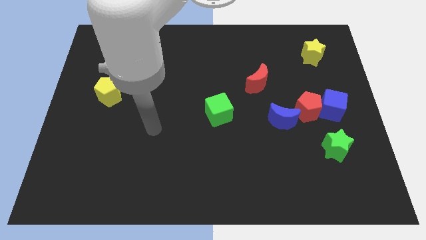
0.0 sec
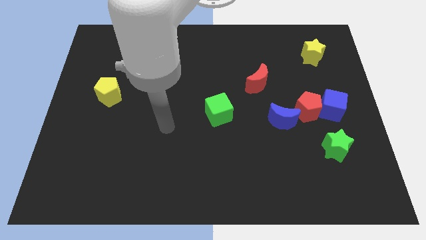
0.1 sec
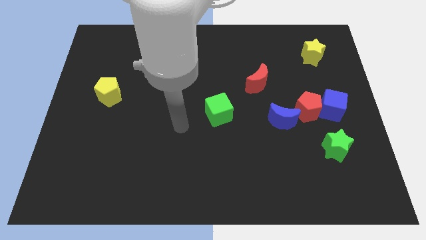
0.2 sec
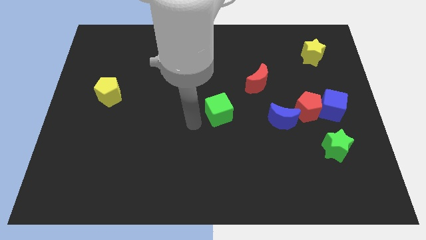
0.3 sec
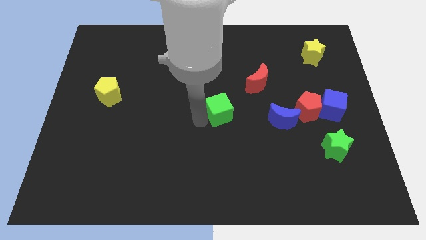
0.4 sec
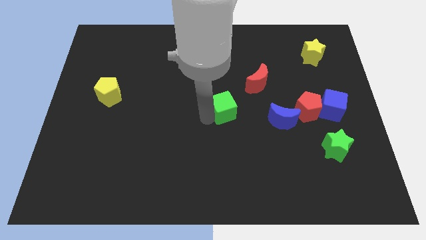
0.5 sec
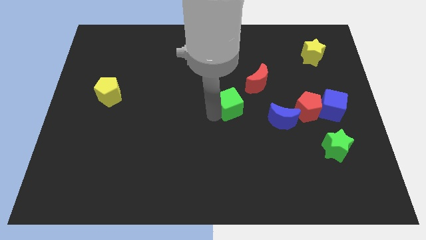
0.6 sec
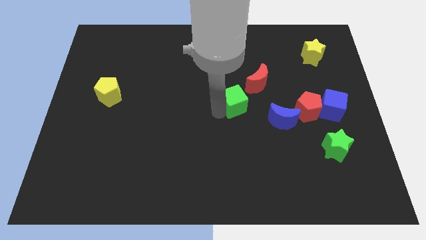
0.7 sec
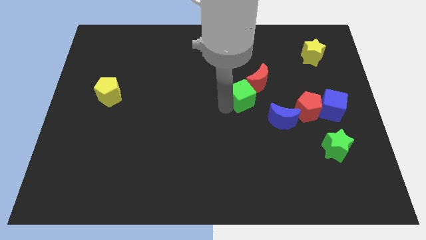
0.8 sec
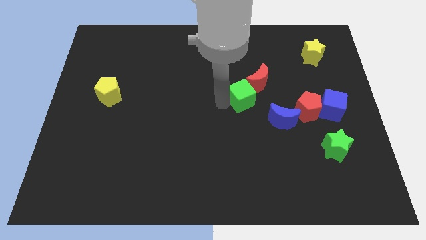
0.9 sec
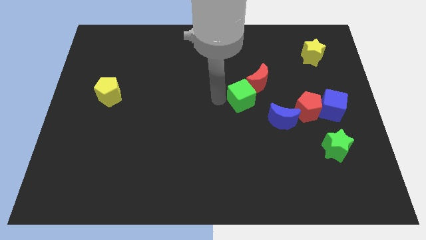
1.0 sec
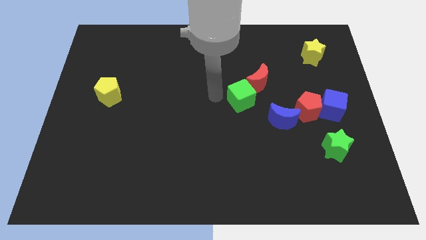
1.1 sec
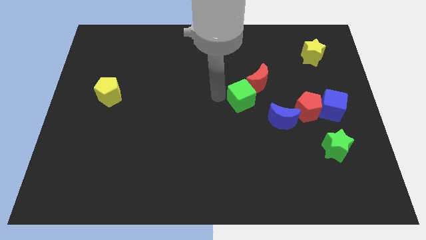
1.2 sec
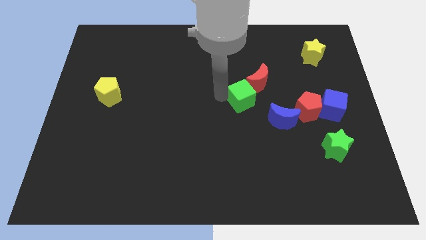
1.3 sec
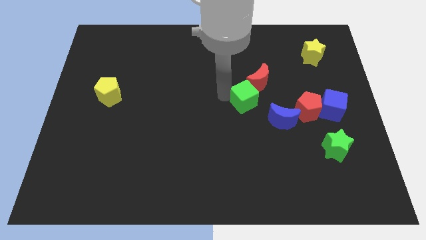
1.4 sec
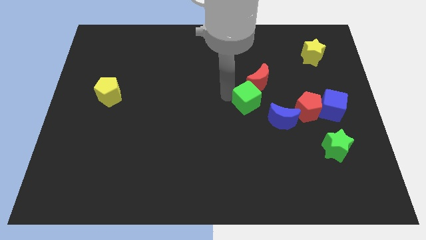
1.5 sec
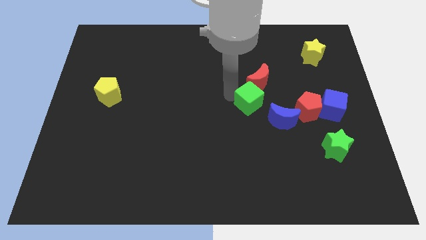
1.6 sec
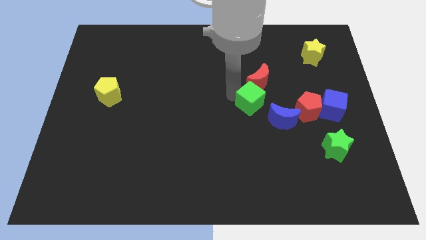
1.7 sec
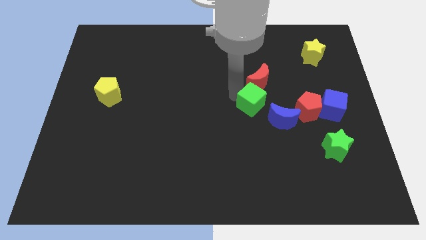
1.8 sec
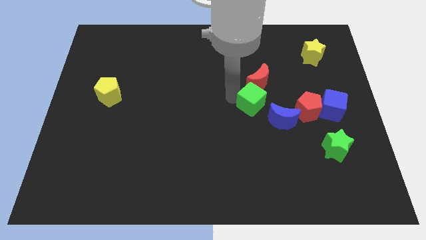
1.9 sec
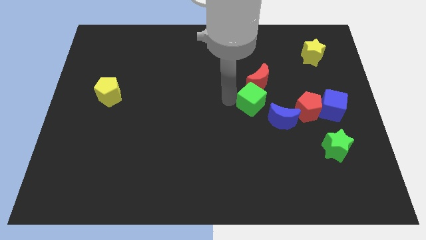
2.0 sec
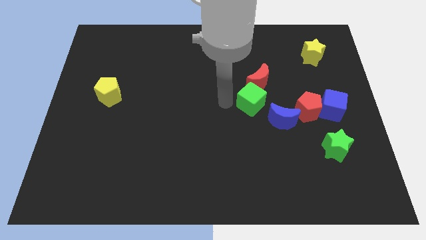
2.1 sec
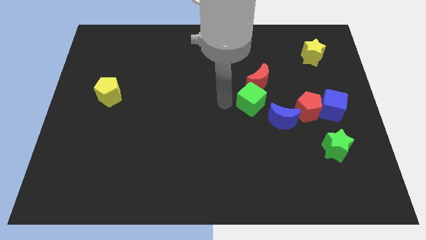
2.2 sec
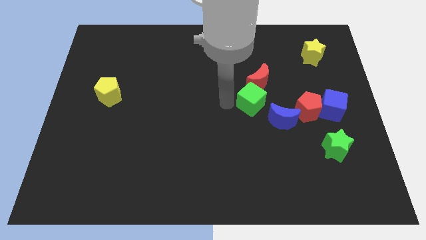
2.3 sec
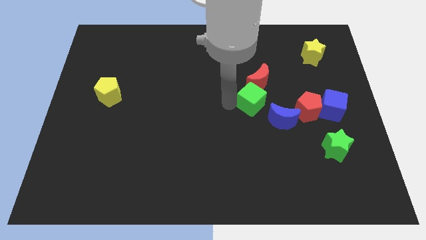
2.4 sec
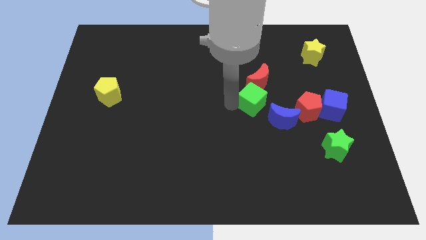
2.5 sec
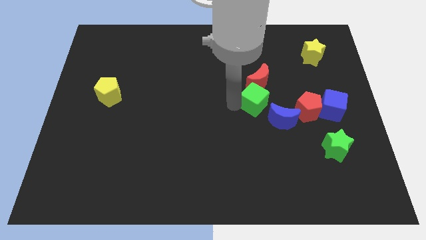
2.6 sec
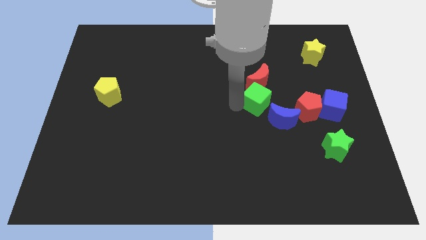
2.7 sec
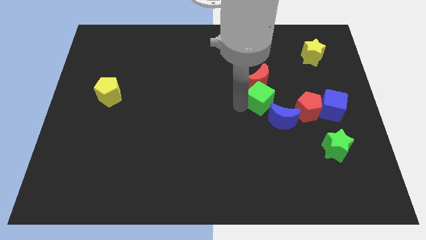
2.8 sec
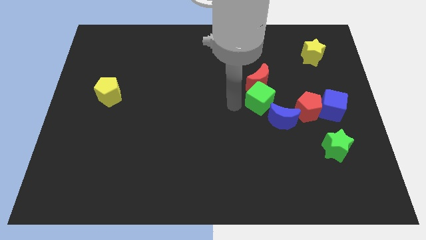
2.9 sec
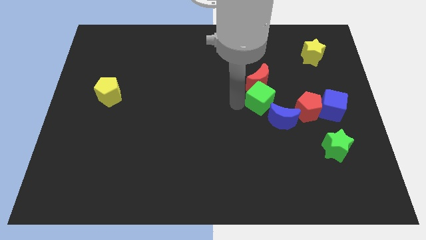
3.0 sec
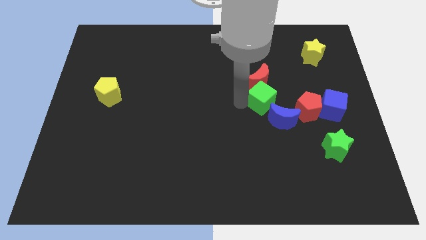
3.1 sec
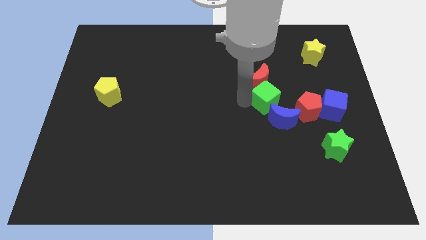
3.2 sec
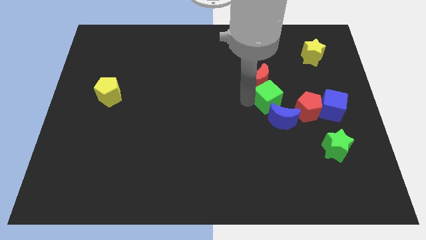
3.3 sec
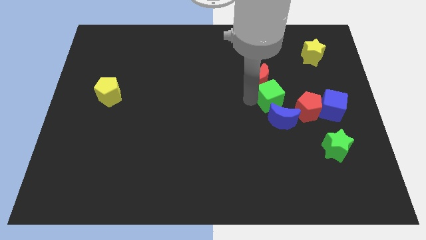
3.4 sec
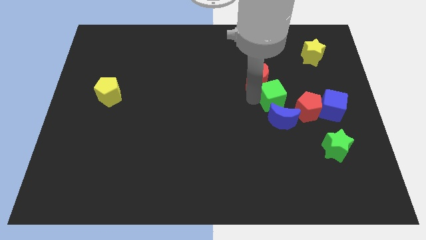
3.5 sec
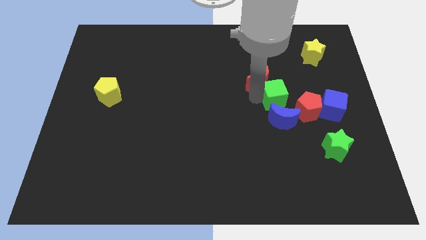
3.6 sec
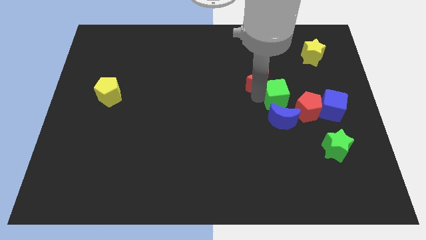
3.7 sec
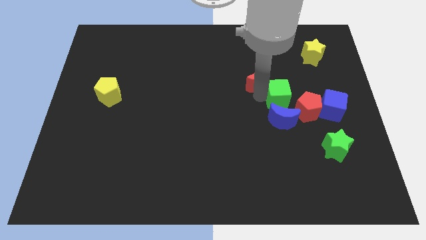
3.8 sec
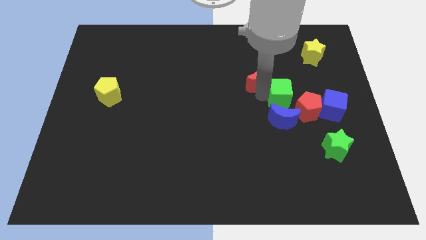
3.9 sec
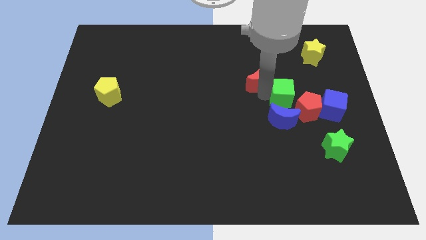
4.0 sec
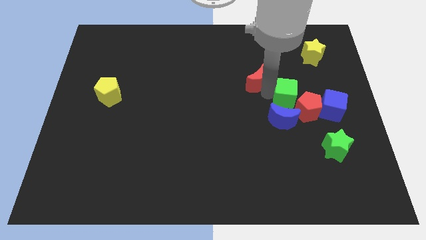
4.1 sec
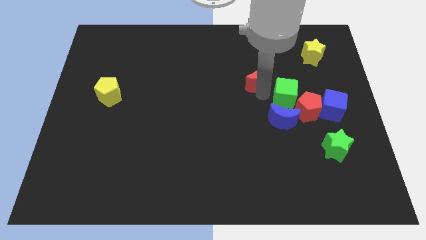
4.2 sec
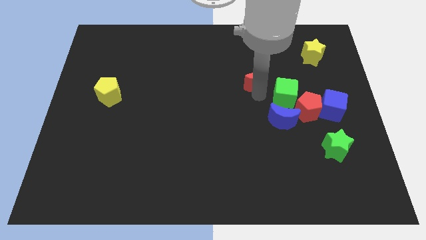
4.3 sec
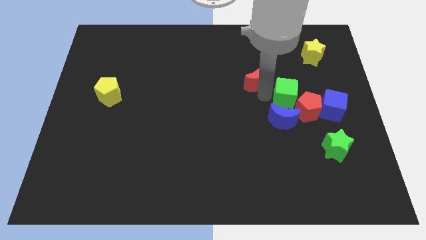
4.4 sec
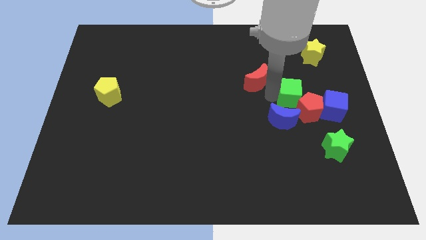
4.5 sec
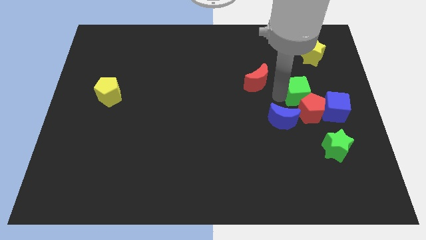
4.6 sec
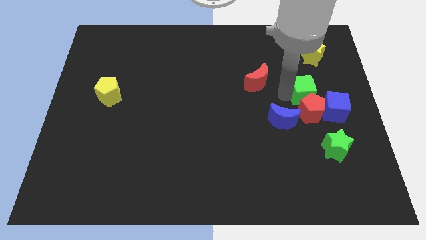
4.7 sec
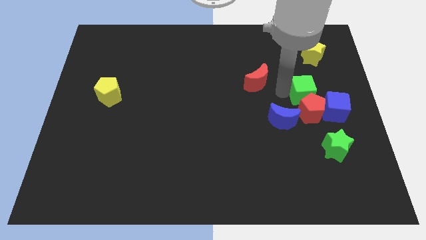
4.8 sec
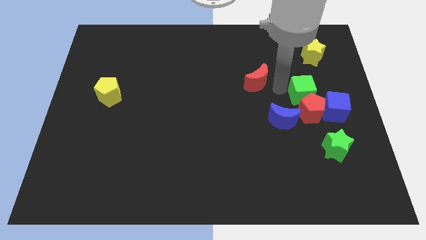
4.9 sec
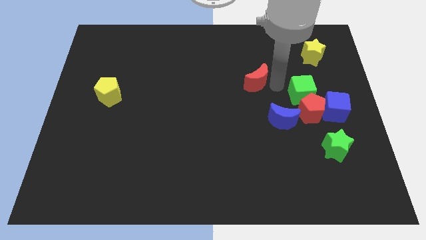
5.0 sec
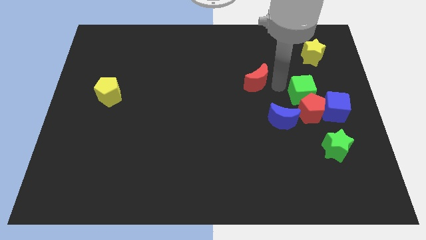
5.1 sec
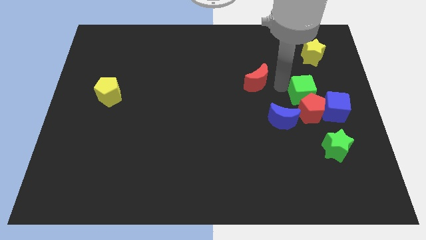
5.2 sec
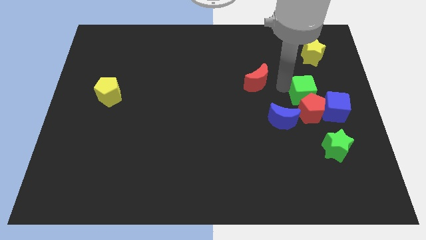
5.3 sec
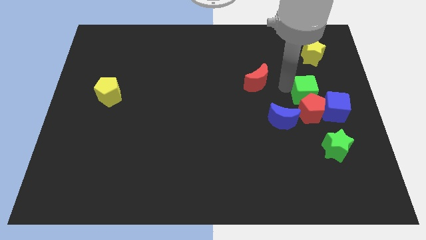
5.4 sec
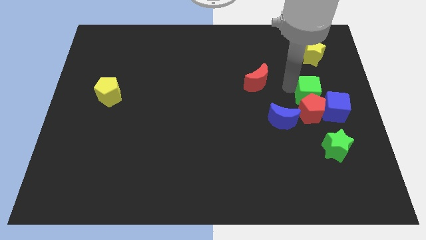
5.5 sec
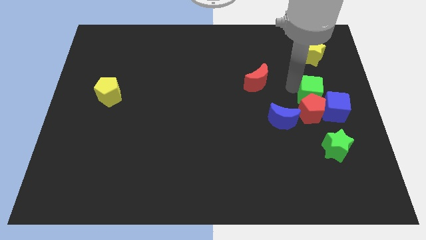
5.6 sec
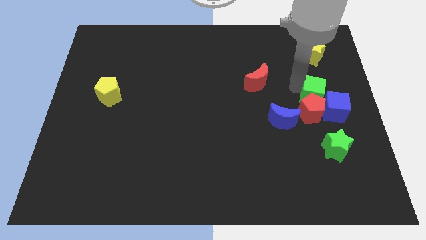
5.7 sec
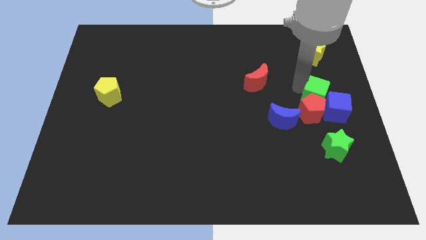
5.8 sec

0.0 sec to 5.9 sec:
move the green cube to the blue cube

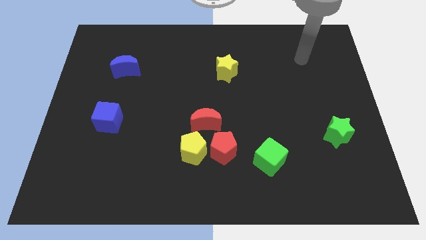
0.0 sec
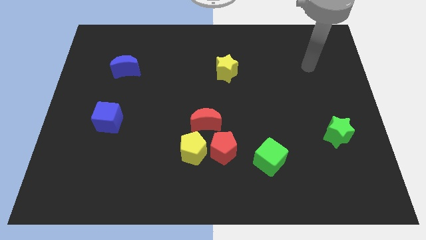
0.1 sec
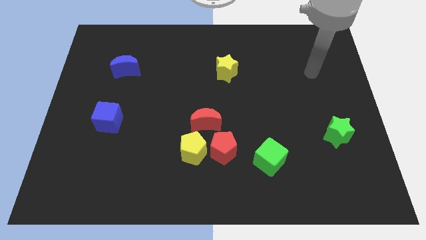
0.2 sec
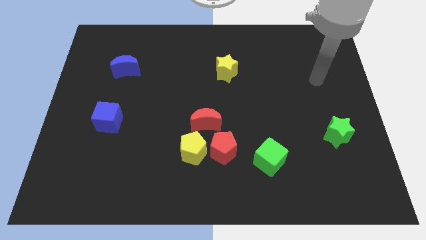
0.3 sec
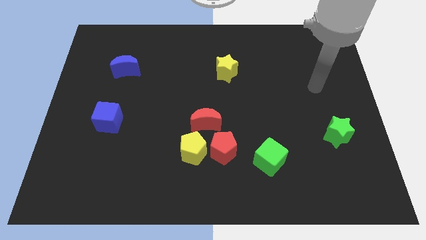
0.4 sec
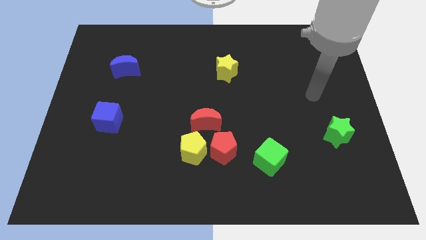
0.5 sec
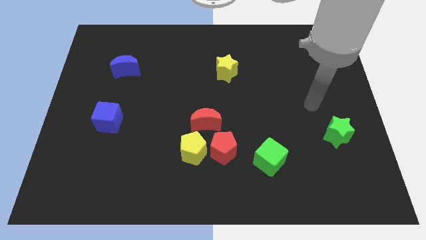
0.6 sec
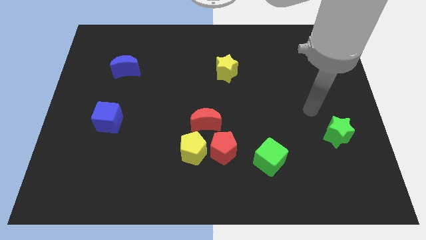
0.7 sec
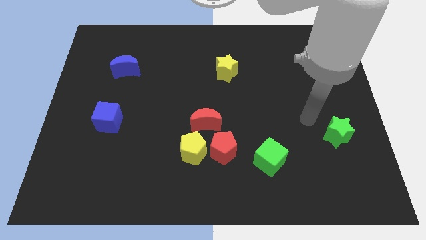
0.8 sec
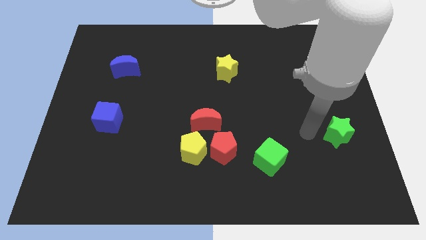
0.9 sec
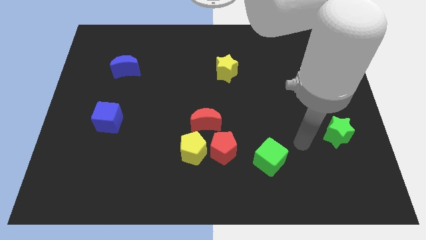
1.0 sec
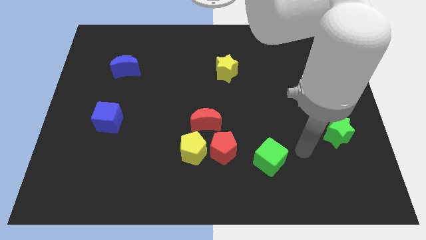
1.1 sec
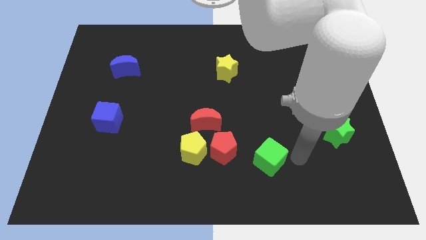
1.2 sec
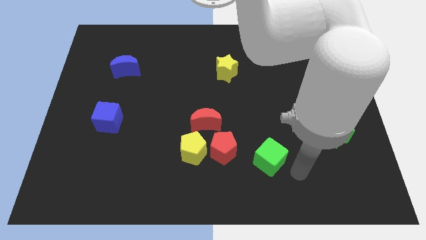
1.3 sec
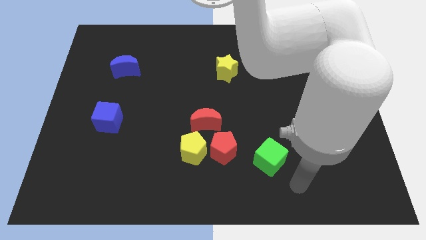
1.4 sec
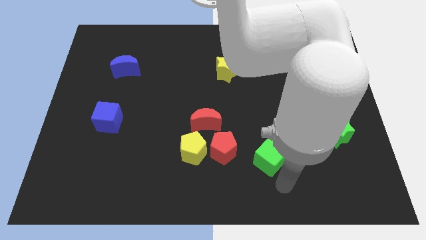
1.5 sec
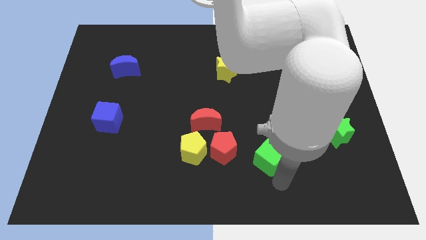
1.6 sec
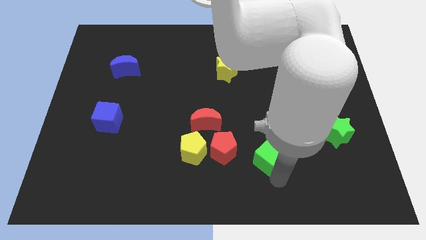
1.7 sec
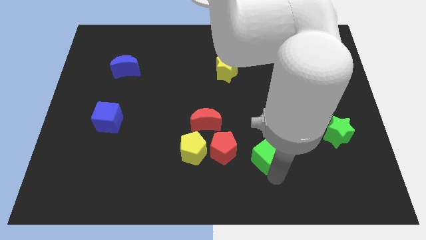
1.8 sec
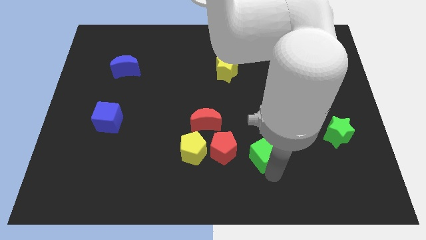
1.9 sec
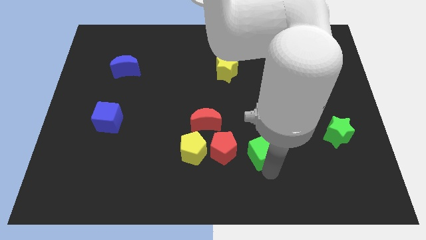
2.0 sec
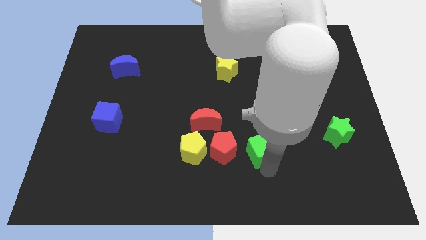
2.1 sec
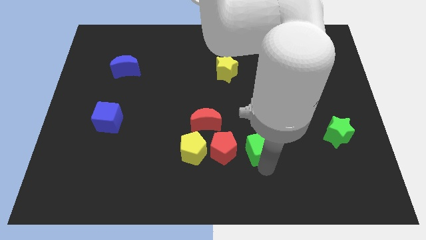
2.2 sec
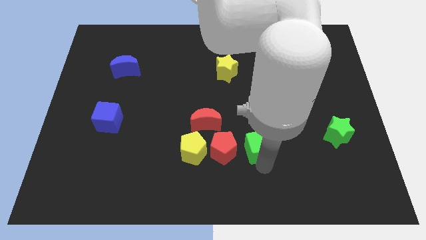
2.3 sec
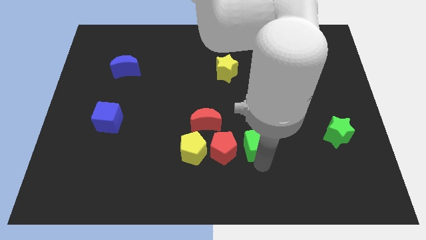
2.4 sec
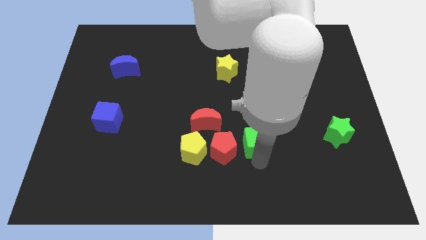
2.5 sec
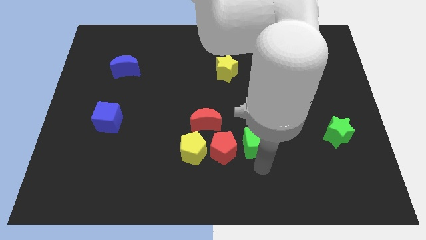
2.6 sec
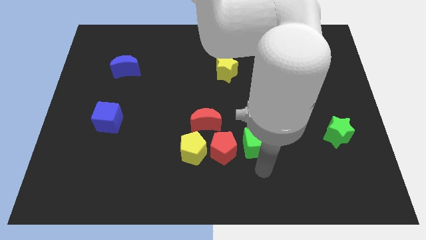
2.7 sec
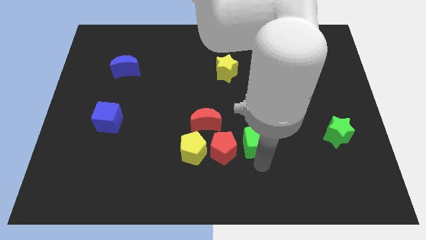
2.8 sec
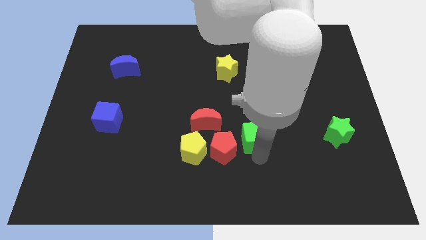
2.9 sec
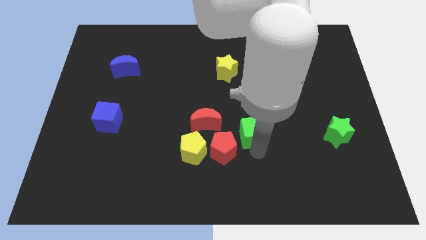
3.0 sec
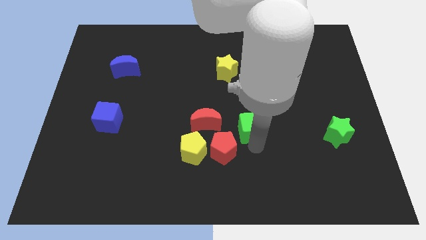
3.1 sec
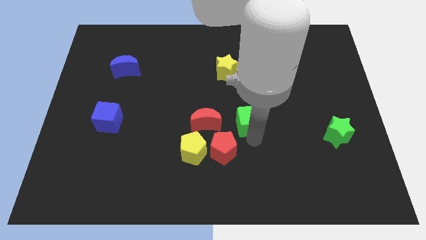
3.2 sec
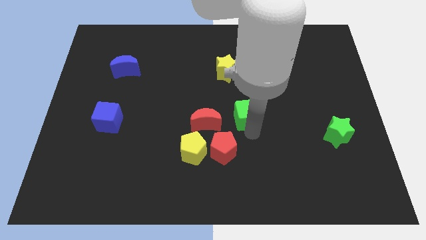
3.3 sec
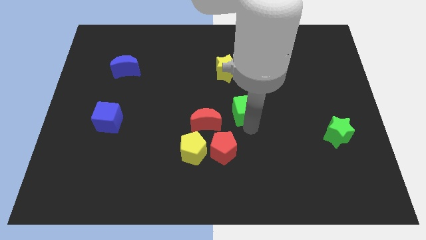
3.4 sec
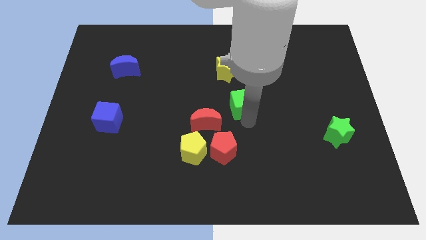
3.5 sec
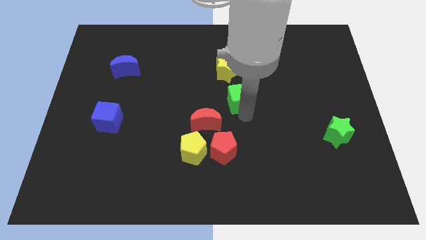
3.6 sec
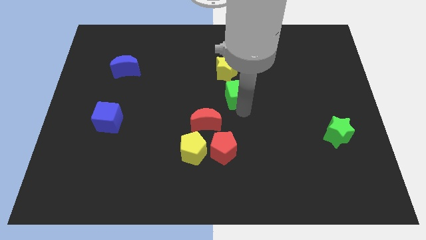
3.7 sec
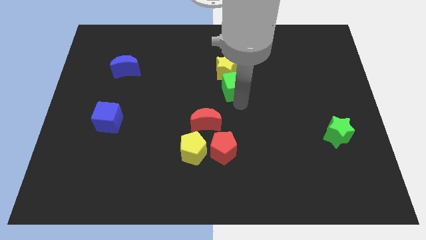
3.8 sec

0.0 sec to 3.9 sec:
put the green cube towards the yellow star
